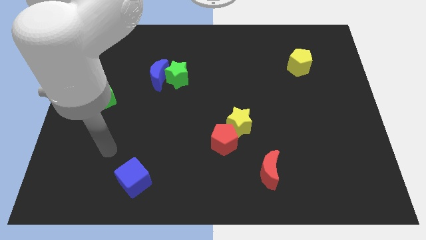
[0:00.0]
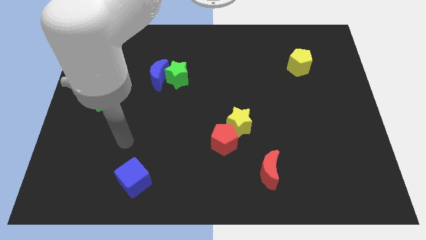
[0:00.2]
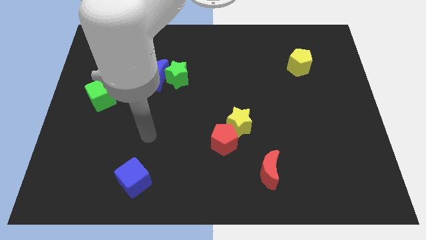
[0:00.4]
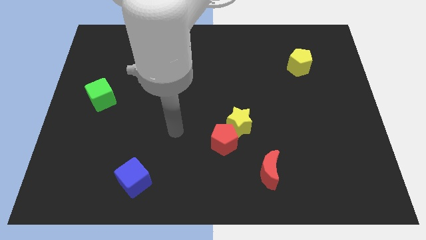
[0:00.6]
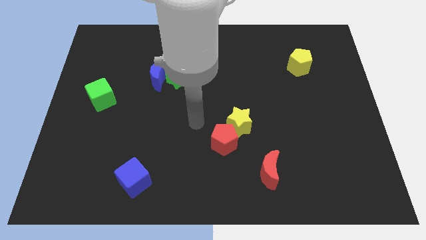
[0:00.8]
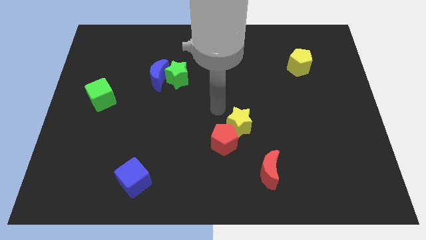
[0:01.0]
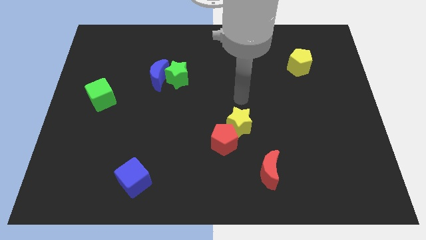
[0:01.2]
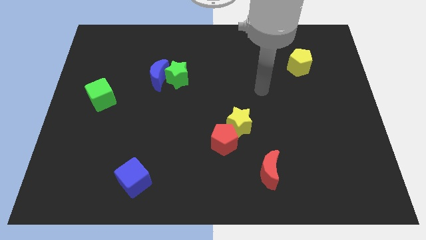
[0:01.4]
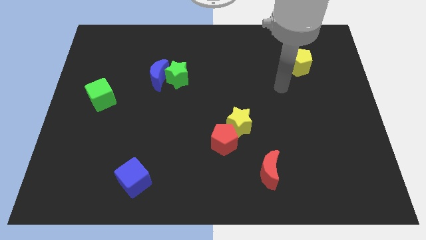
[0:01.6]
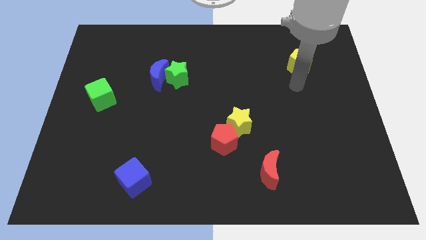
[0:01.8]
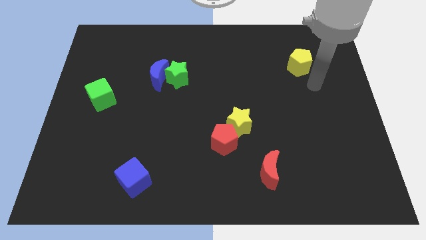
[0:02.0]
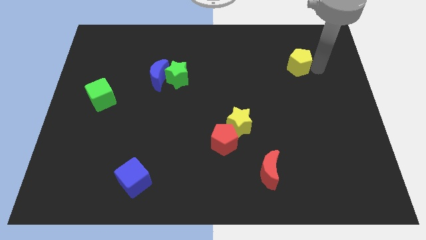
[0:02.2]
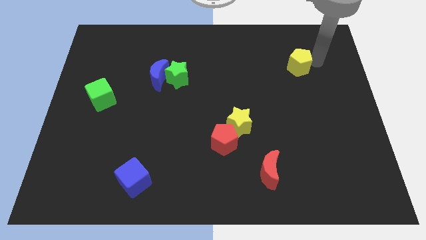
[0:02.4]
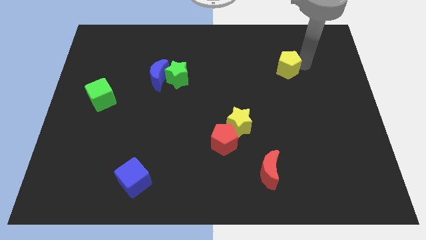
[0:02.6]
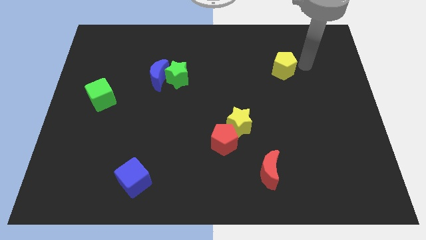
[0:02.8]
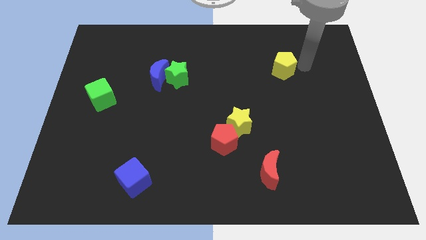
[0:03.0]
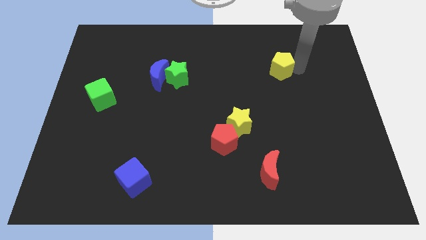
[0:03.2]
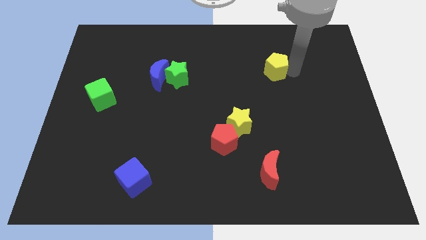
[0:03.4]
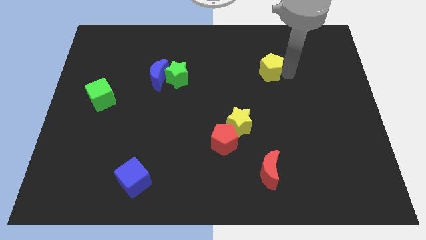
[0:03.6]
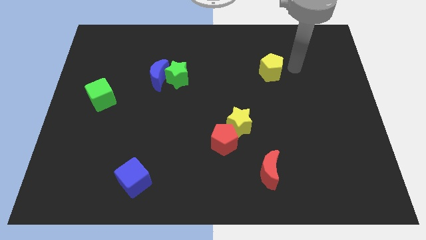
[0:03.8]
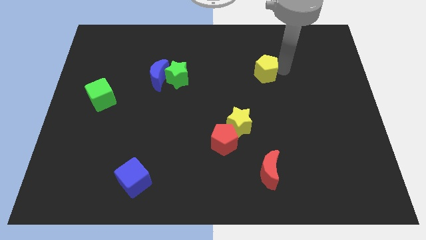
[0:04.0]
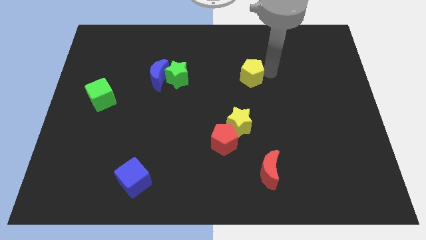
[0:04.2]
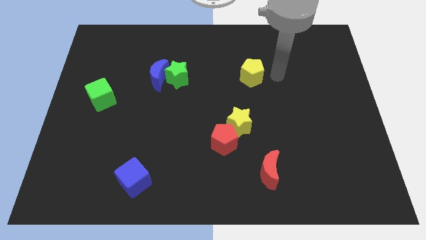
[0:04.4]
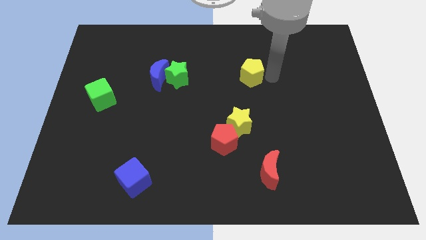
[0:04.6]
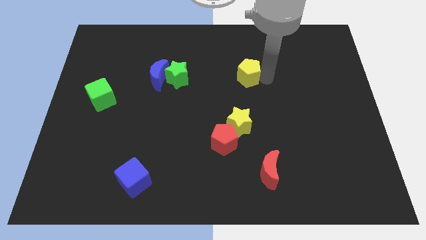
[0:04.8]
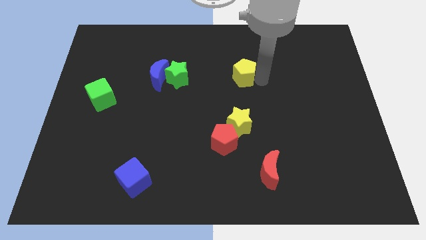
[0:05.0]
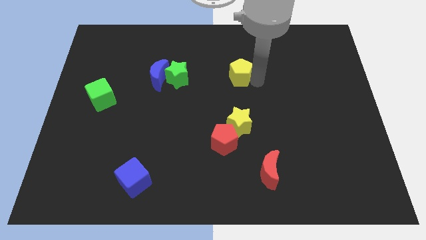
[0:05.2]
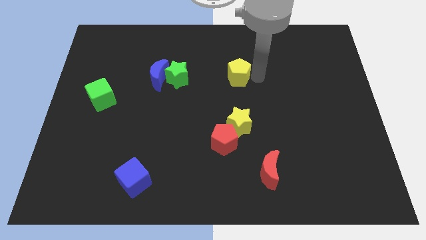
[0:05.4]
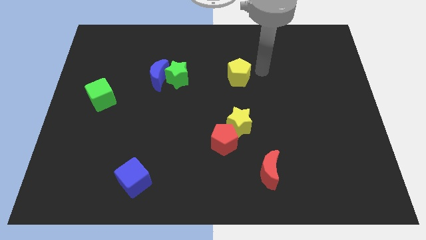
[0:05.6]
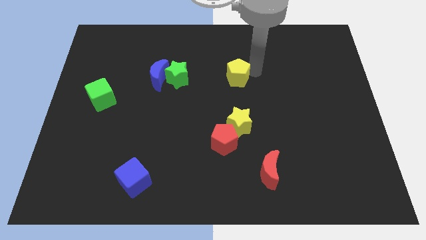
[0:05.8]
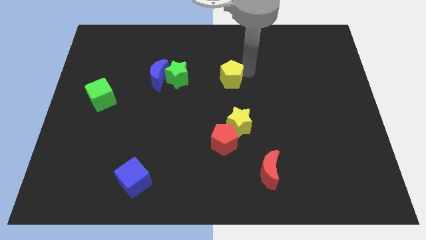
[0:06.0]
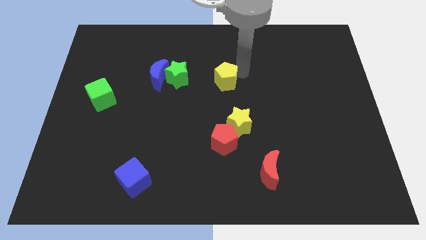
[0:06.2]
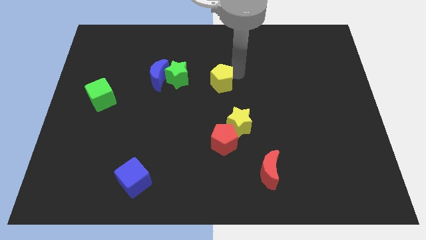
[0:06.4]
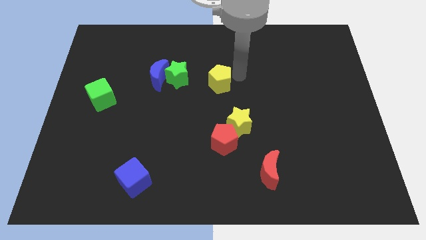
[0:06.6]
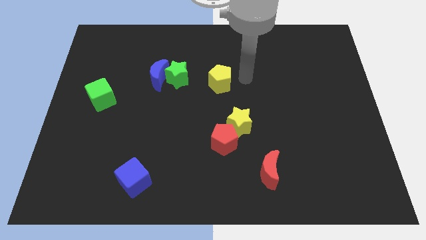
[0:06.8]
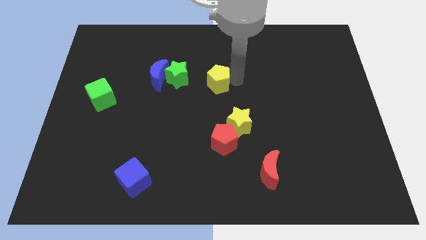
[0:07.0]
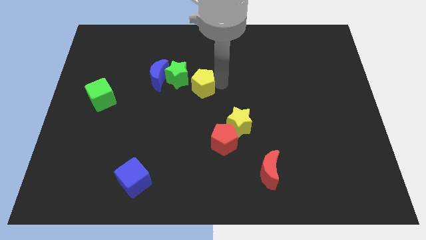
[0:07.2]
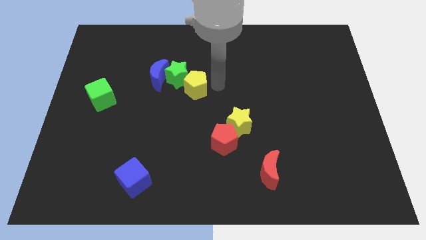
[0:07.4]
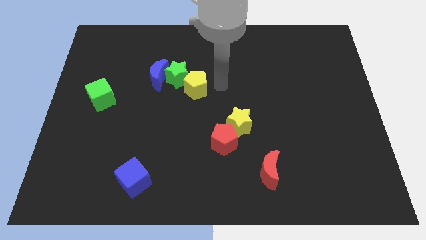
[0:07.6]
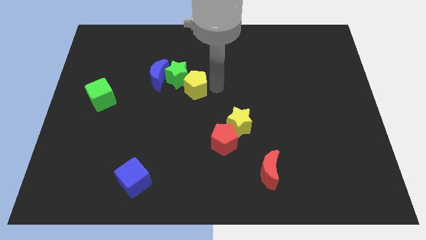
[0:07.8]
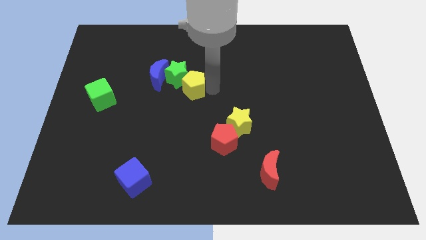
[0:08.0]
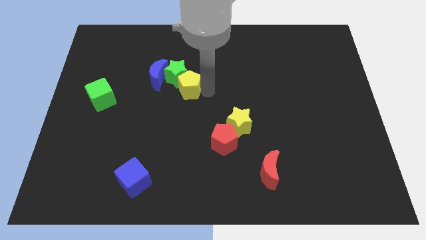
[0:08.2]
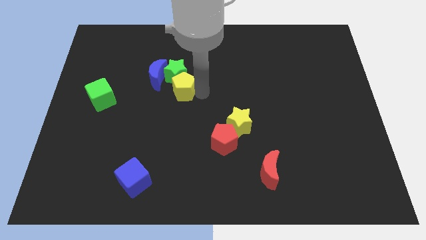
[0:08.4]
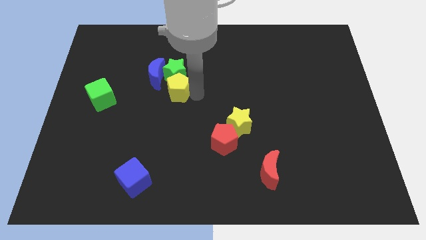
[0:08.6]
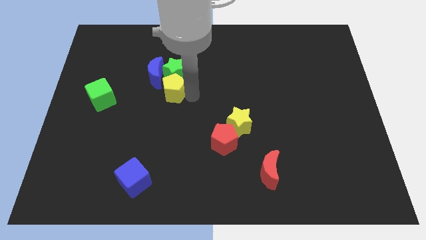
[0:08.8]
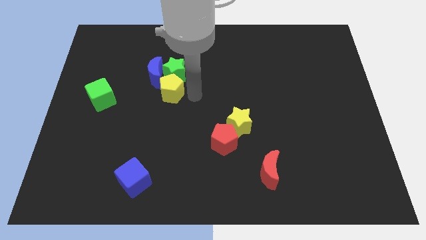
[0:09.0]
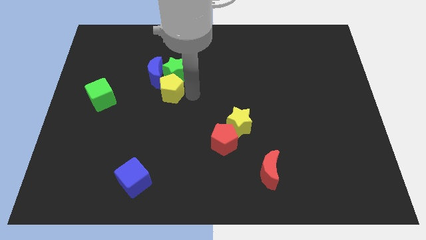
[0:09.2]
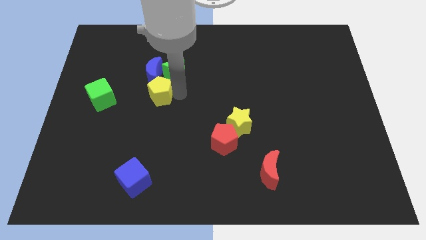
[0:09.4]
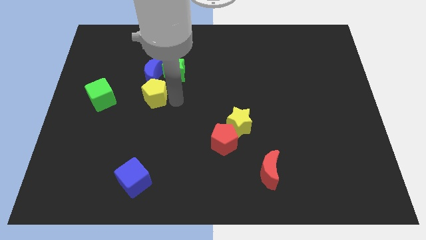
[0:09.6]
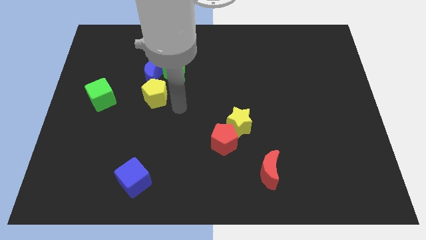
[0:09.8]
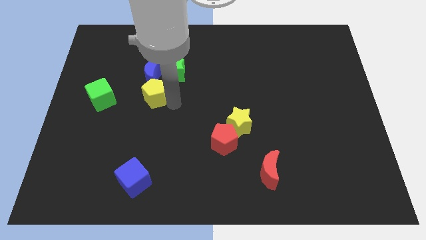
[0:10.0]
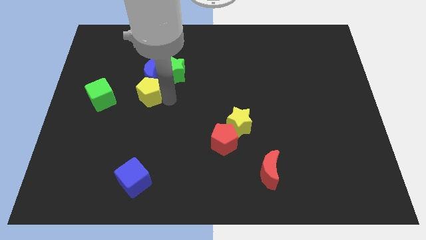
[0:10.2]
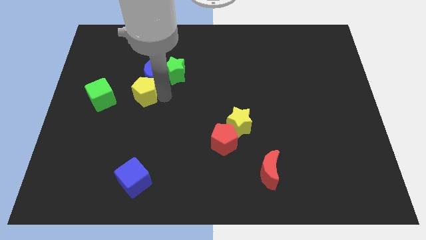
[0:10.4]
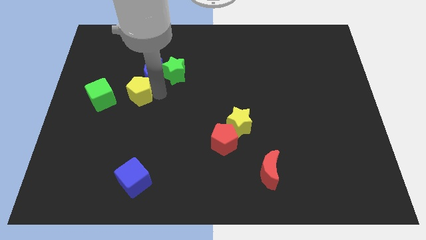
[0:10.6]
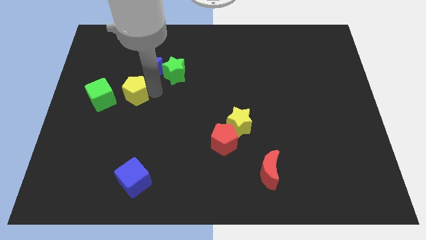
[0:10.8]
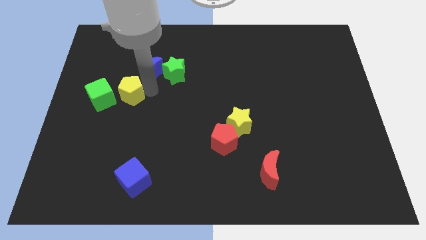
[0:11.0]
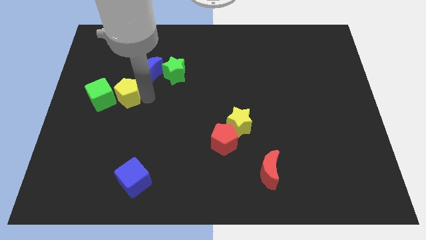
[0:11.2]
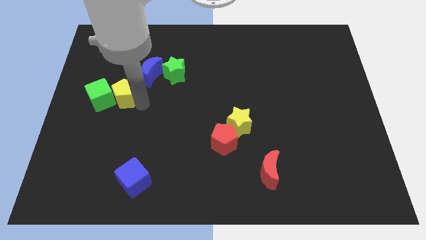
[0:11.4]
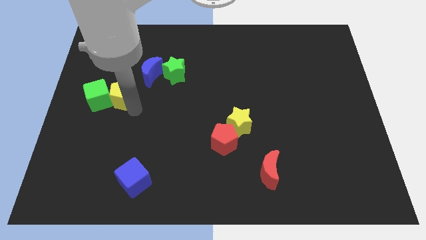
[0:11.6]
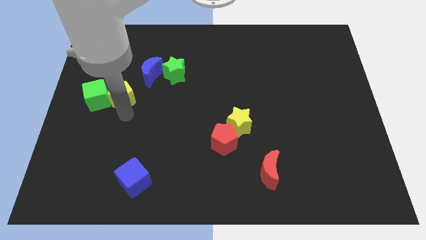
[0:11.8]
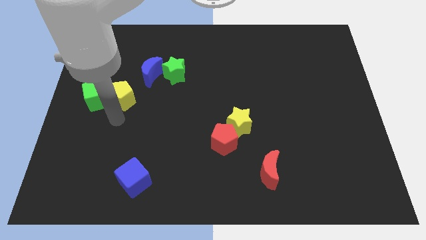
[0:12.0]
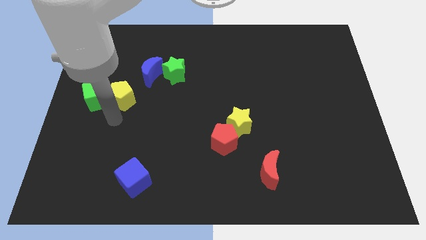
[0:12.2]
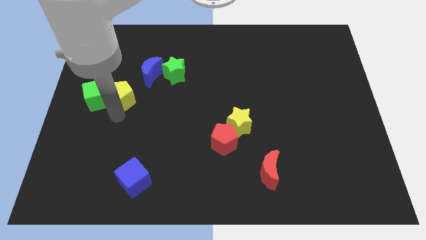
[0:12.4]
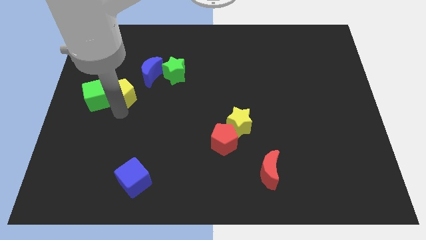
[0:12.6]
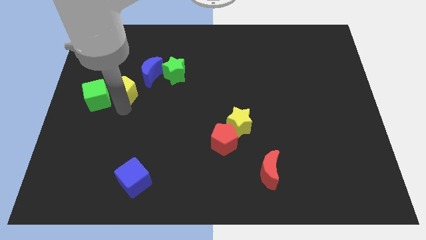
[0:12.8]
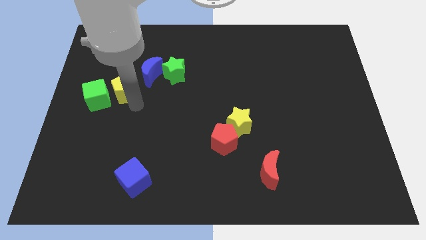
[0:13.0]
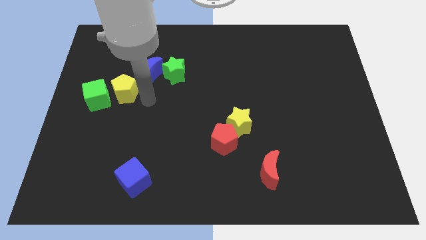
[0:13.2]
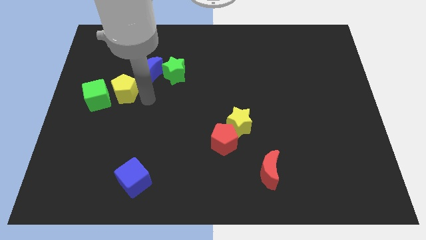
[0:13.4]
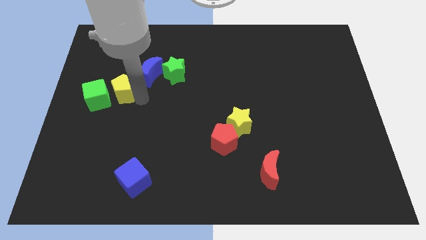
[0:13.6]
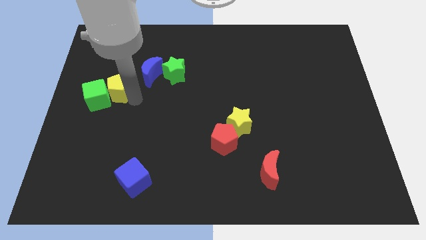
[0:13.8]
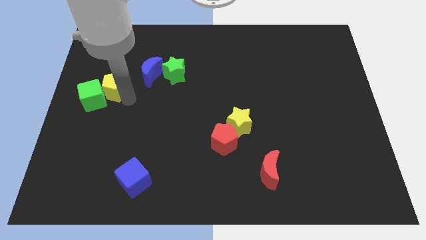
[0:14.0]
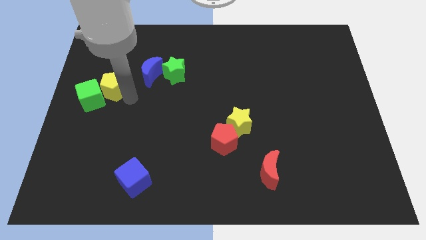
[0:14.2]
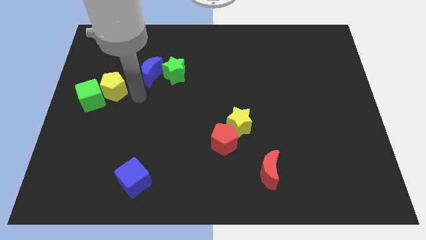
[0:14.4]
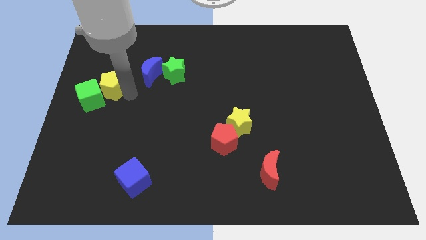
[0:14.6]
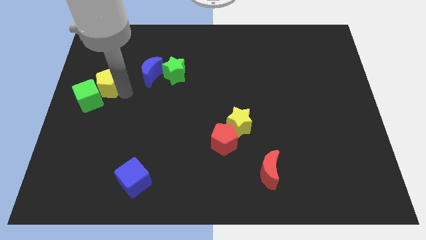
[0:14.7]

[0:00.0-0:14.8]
slide the yellow pentagon to the left side of the board
